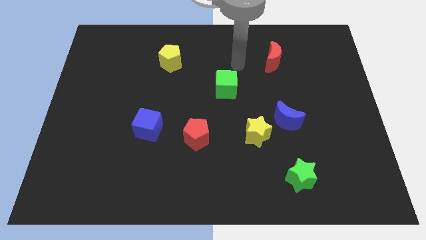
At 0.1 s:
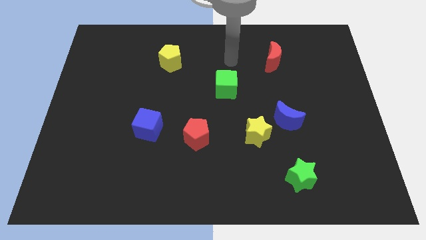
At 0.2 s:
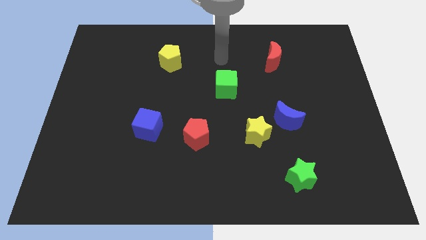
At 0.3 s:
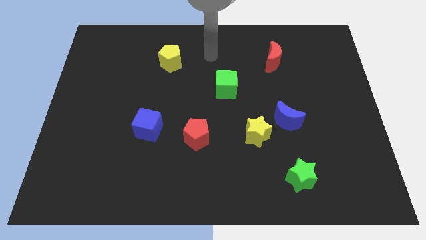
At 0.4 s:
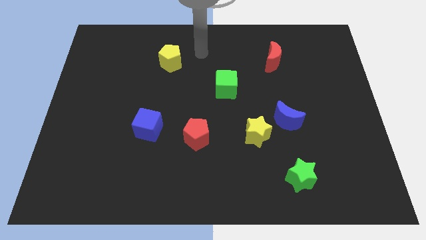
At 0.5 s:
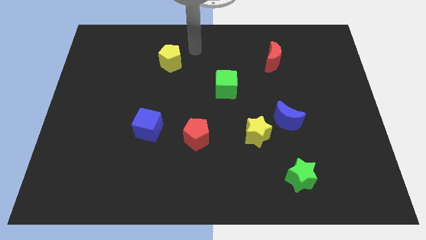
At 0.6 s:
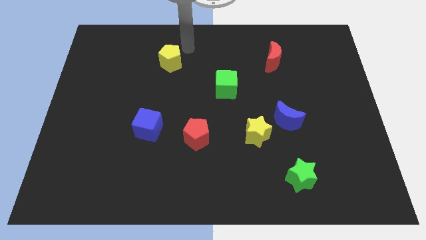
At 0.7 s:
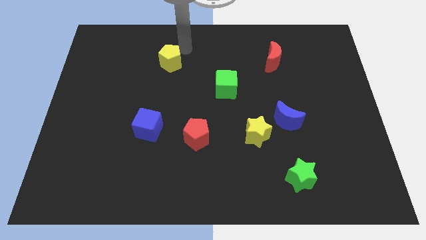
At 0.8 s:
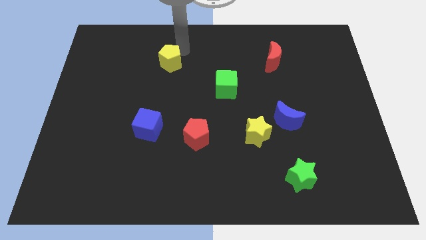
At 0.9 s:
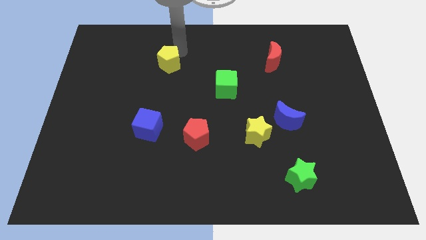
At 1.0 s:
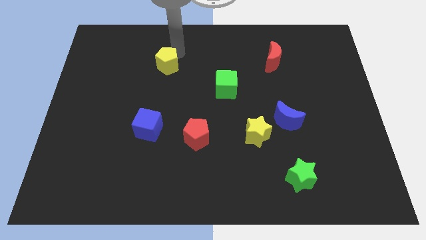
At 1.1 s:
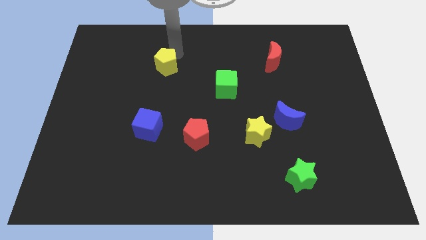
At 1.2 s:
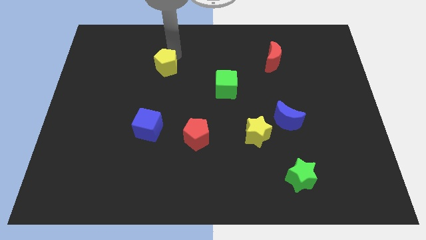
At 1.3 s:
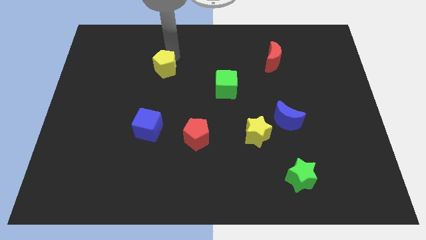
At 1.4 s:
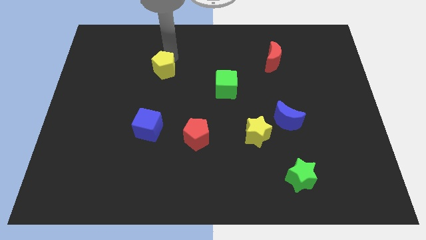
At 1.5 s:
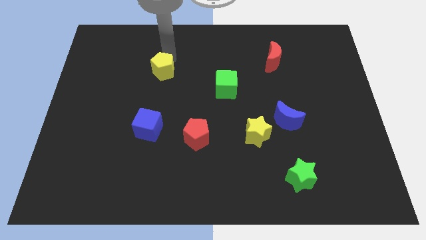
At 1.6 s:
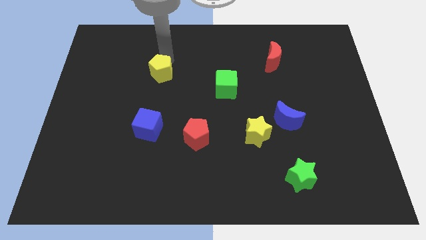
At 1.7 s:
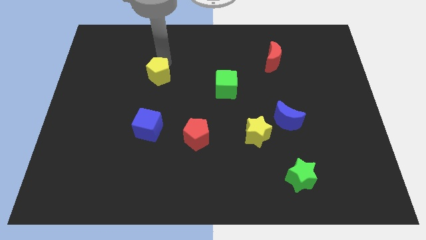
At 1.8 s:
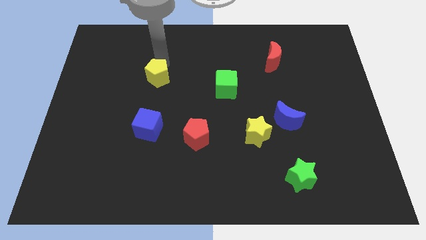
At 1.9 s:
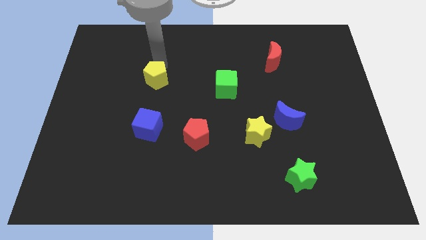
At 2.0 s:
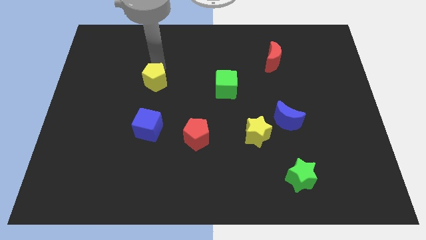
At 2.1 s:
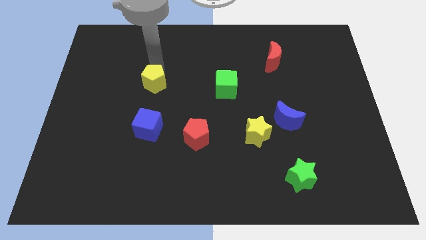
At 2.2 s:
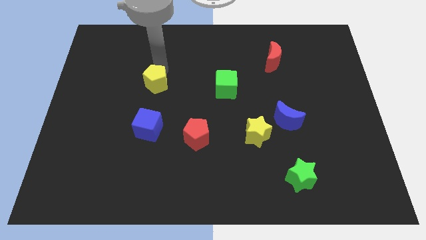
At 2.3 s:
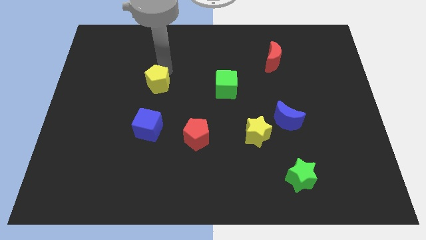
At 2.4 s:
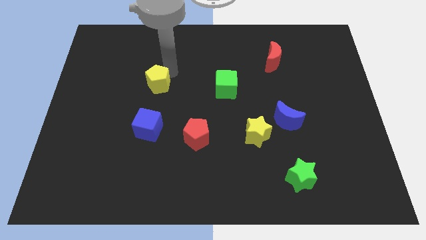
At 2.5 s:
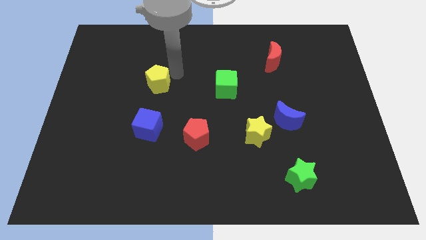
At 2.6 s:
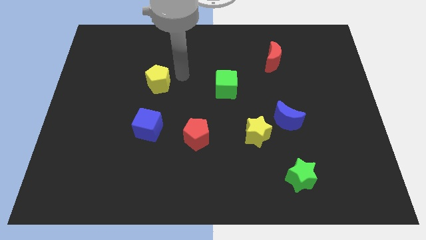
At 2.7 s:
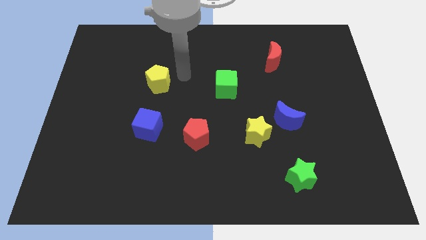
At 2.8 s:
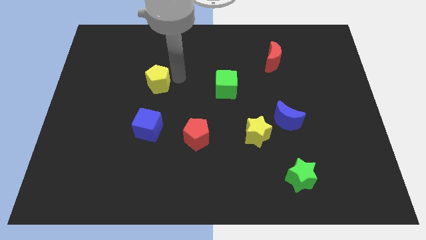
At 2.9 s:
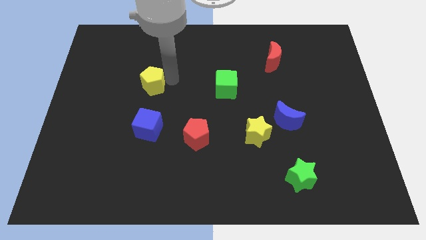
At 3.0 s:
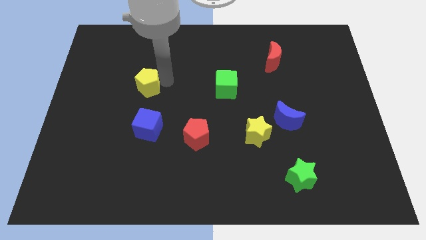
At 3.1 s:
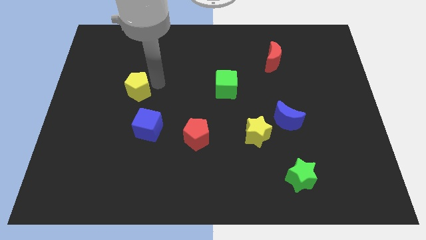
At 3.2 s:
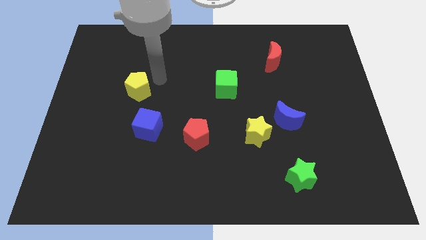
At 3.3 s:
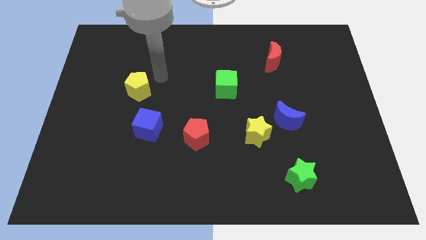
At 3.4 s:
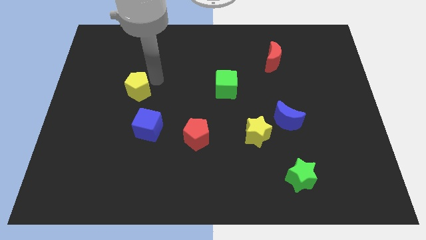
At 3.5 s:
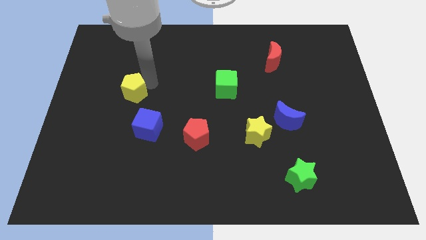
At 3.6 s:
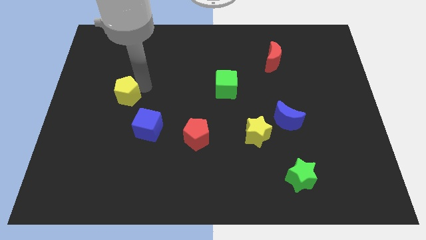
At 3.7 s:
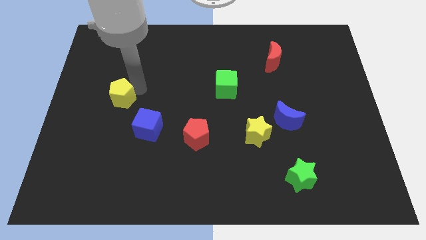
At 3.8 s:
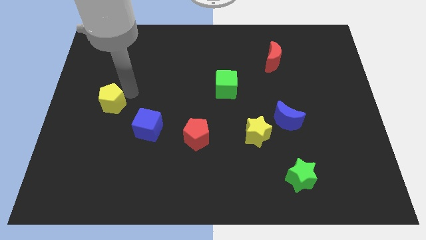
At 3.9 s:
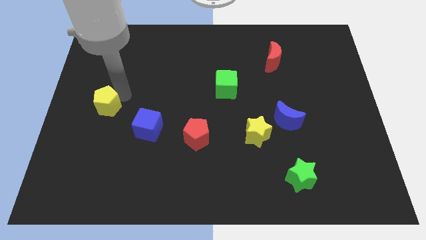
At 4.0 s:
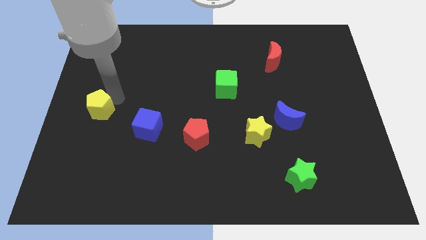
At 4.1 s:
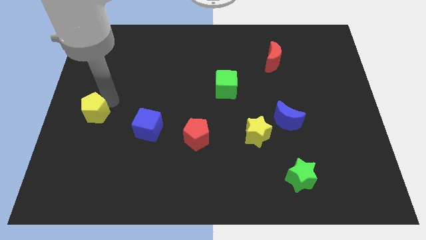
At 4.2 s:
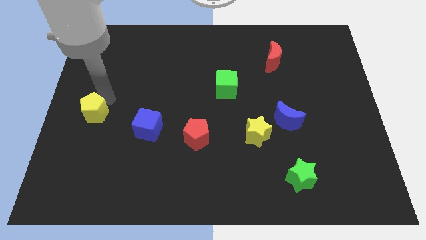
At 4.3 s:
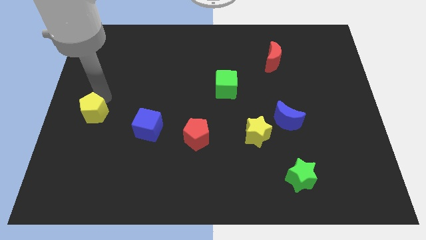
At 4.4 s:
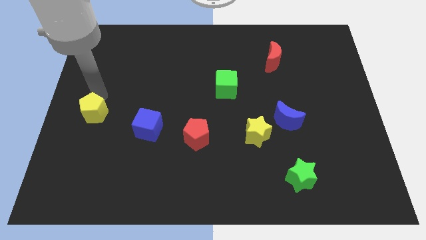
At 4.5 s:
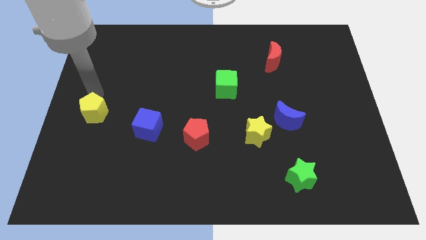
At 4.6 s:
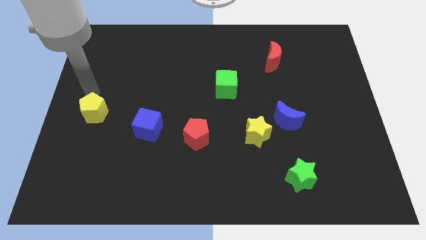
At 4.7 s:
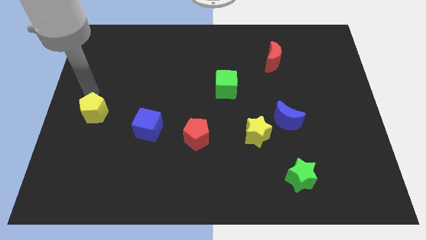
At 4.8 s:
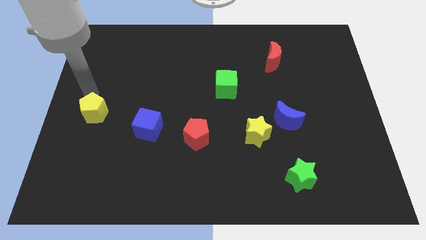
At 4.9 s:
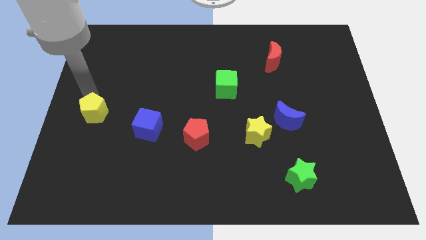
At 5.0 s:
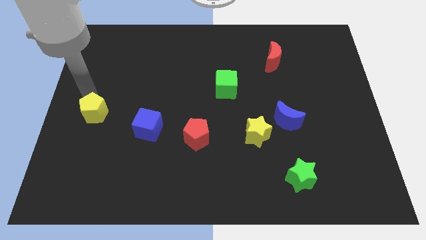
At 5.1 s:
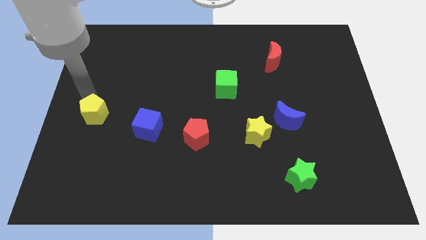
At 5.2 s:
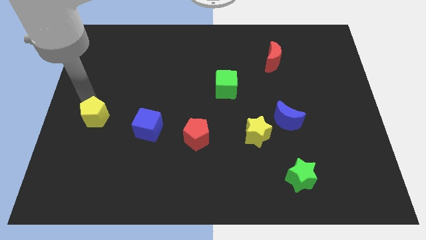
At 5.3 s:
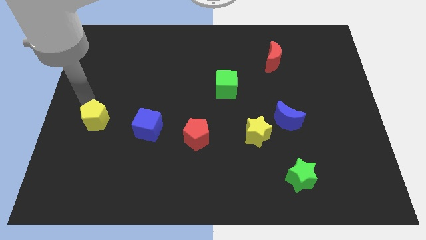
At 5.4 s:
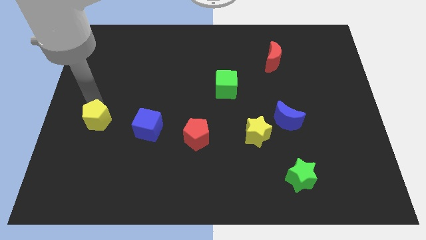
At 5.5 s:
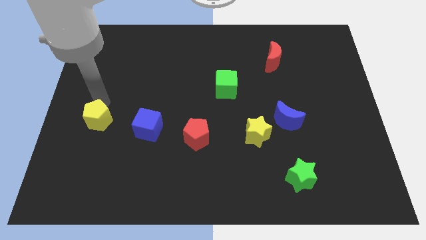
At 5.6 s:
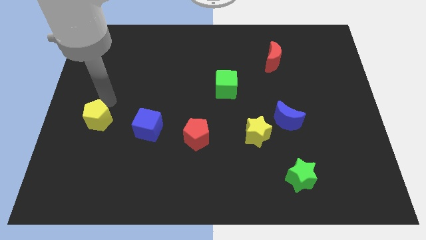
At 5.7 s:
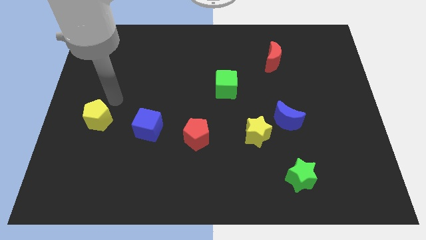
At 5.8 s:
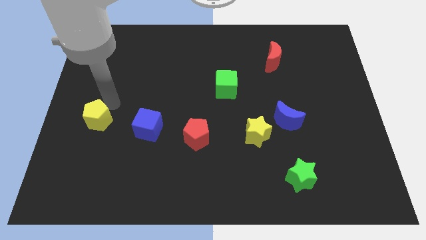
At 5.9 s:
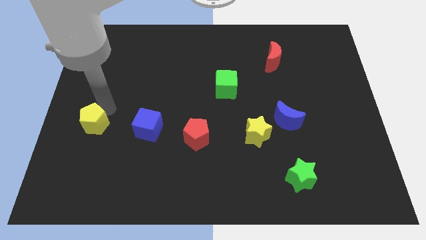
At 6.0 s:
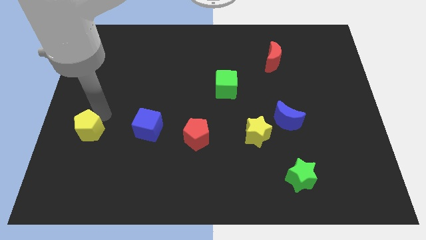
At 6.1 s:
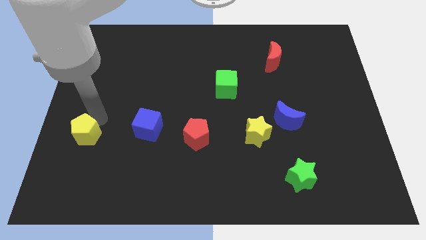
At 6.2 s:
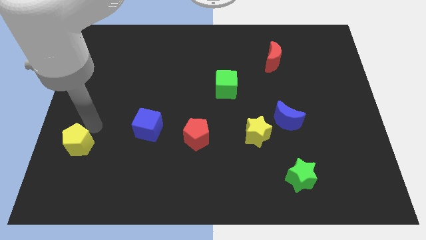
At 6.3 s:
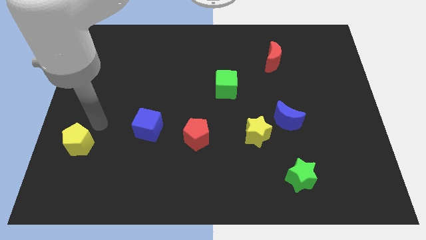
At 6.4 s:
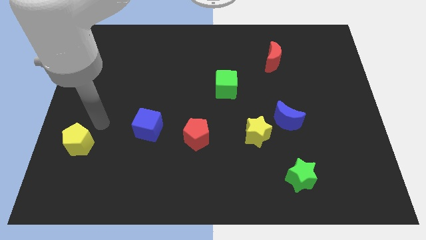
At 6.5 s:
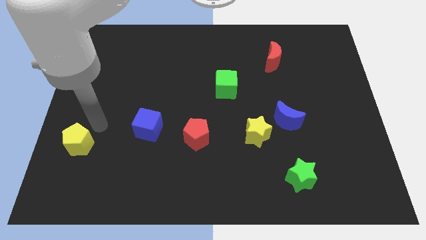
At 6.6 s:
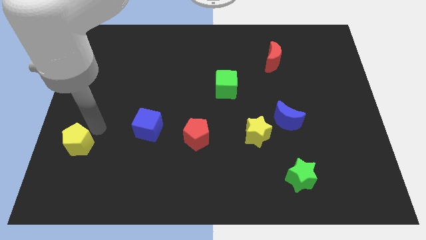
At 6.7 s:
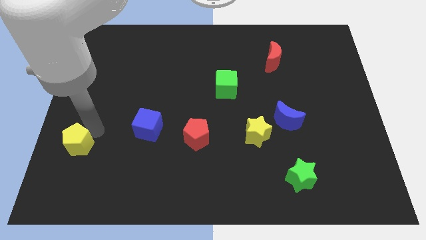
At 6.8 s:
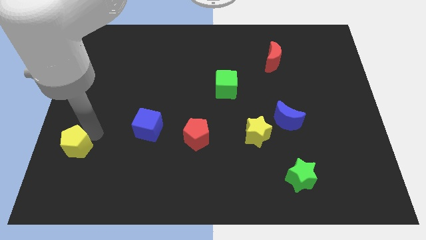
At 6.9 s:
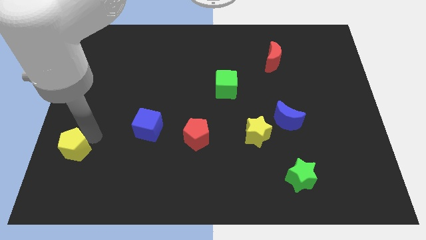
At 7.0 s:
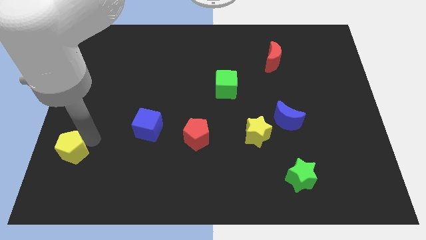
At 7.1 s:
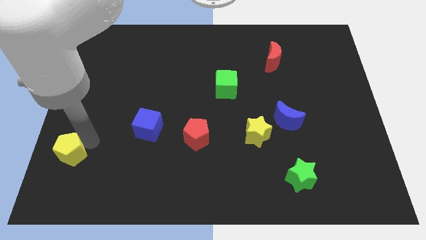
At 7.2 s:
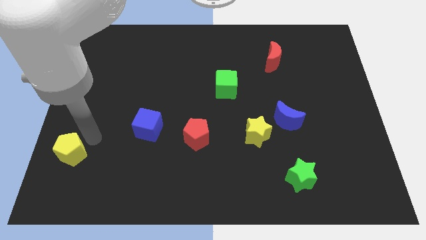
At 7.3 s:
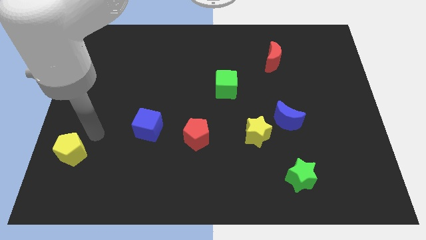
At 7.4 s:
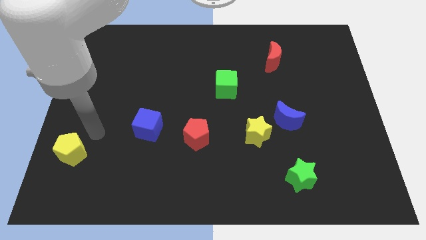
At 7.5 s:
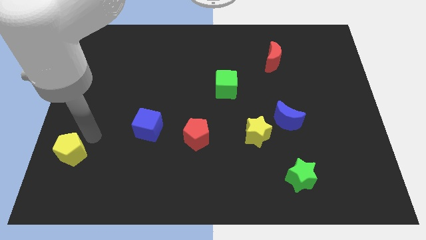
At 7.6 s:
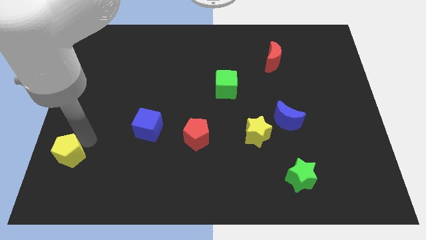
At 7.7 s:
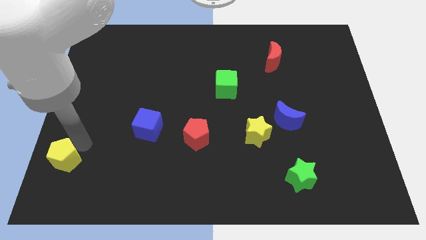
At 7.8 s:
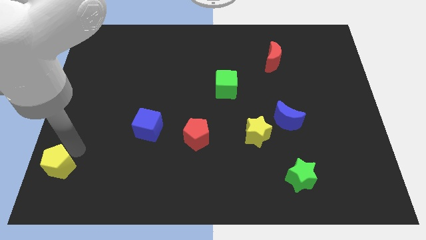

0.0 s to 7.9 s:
push the yellow pentagon to the bottom left corner
